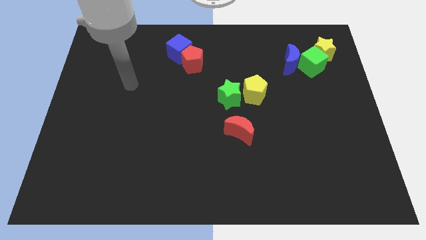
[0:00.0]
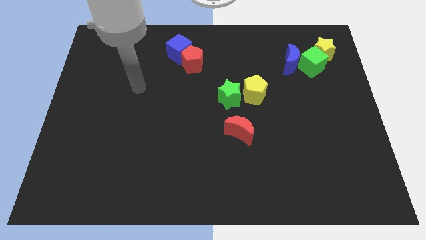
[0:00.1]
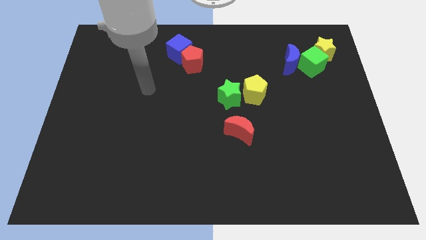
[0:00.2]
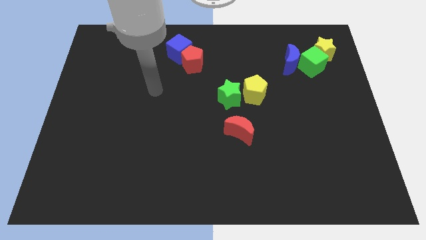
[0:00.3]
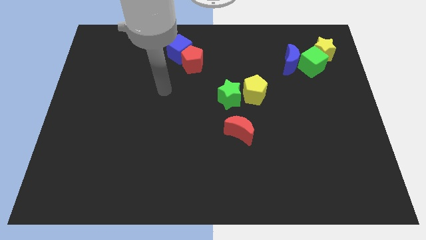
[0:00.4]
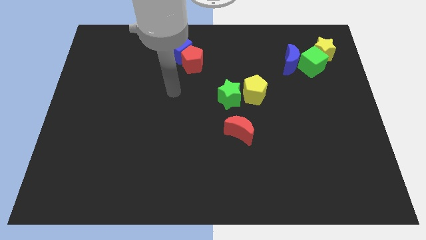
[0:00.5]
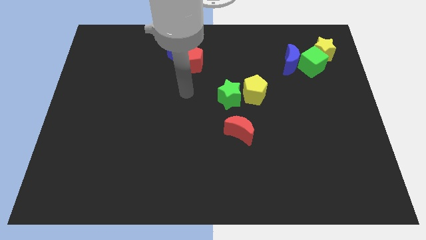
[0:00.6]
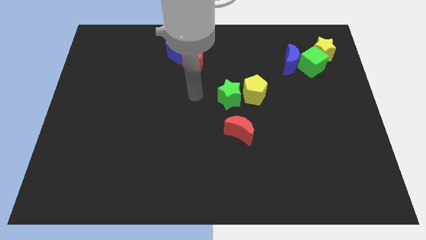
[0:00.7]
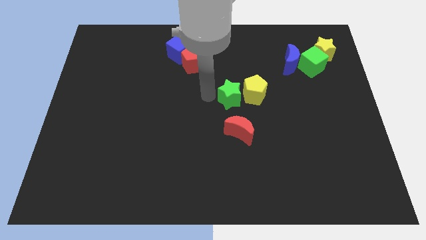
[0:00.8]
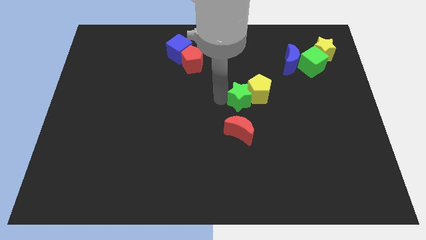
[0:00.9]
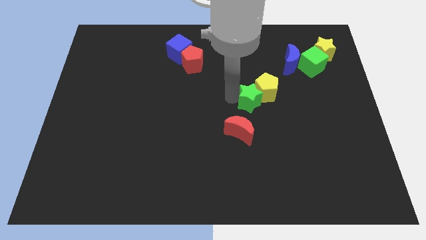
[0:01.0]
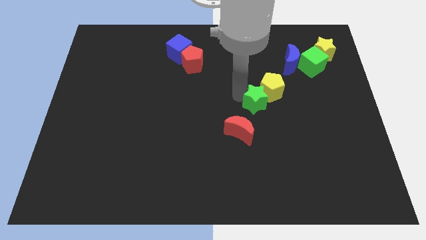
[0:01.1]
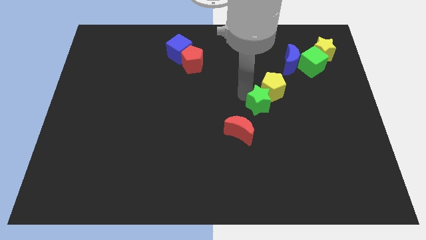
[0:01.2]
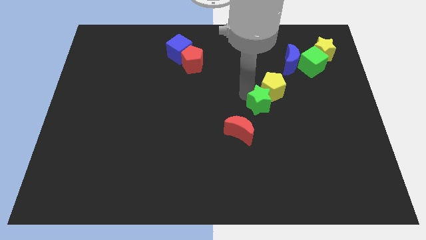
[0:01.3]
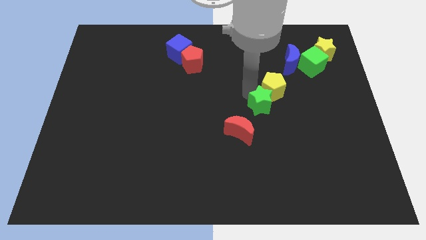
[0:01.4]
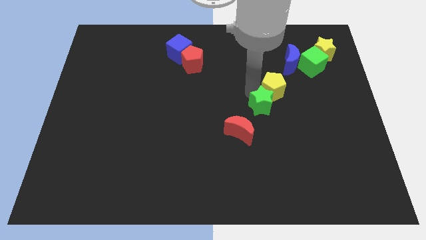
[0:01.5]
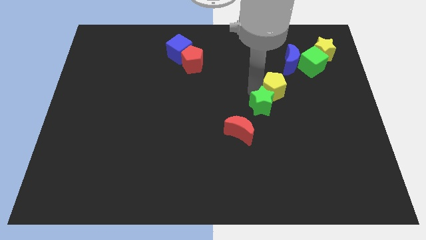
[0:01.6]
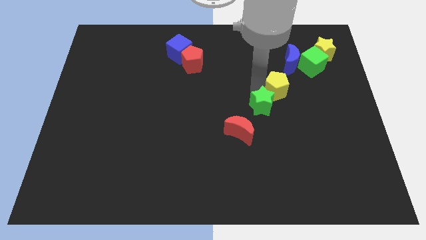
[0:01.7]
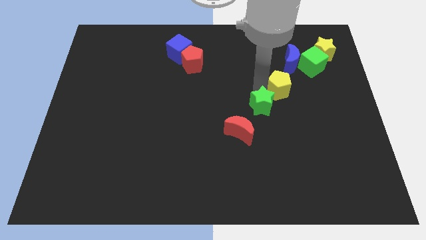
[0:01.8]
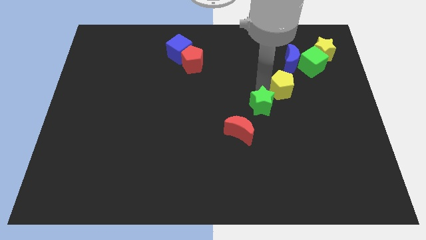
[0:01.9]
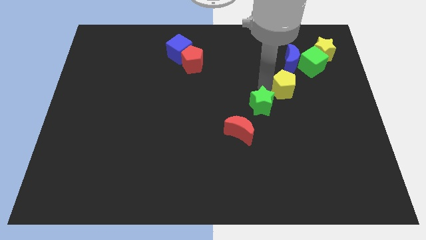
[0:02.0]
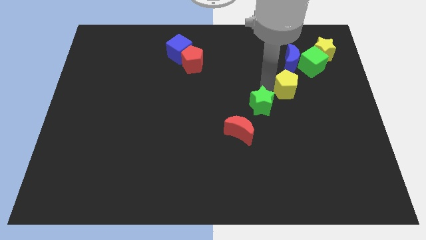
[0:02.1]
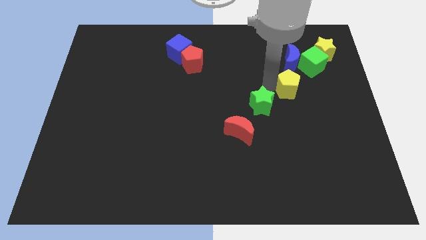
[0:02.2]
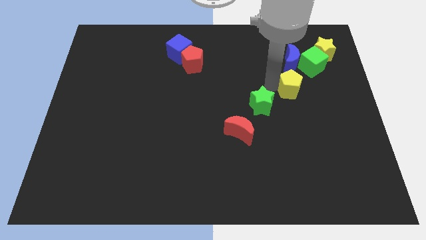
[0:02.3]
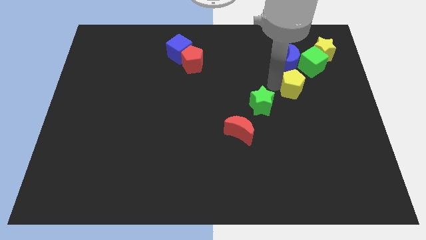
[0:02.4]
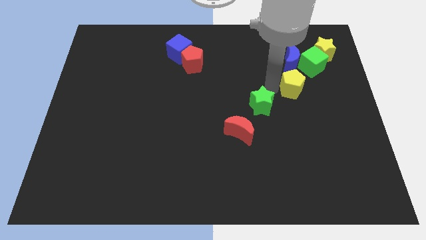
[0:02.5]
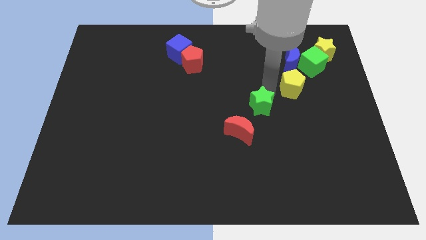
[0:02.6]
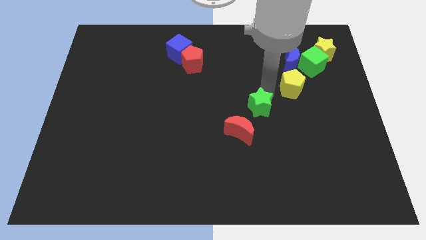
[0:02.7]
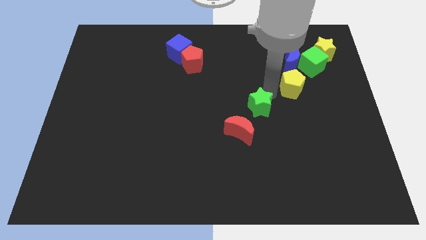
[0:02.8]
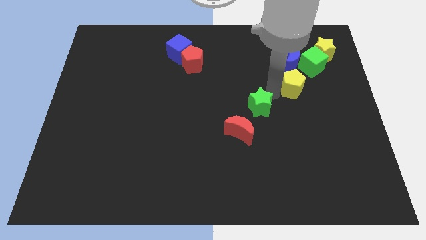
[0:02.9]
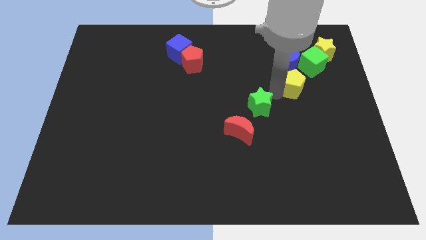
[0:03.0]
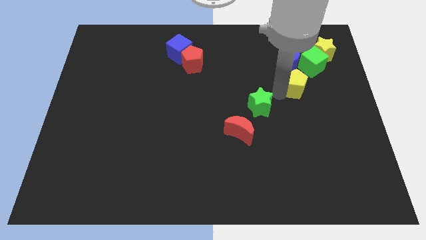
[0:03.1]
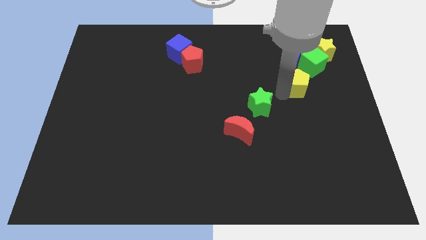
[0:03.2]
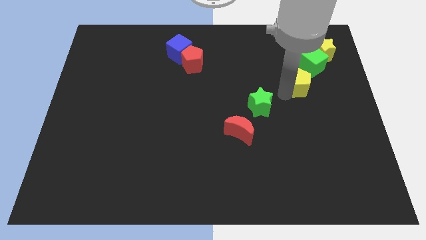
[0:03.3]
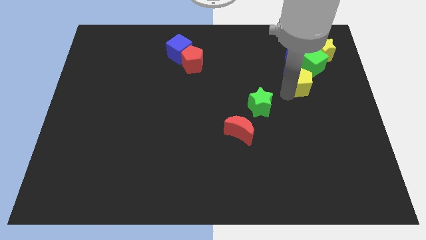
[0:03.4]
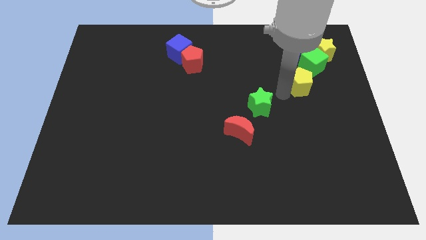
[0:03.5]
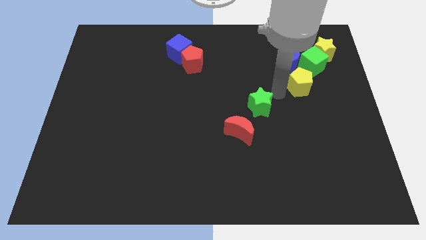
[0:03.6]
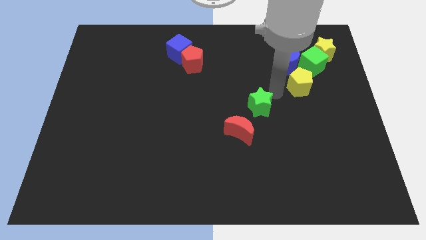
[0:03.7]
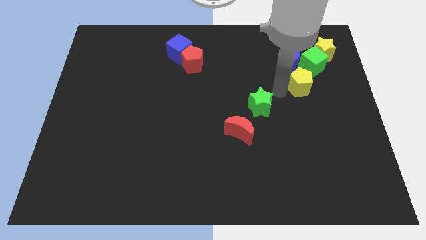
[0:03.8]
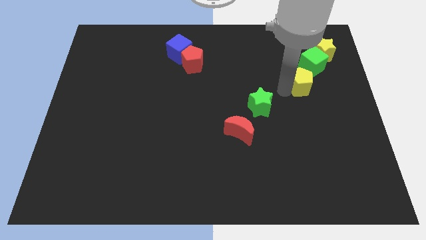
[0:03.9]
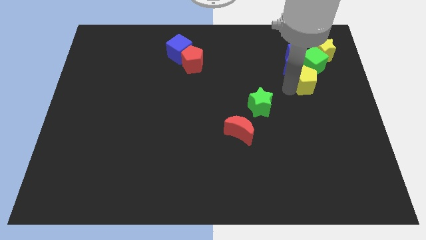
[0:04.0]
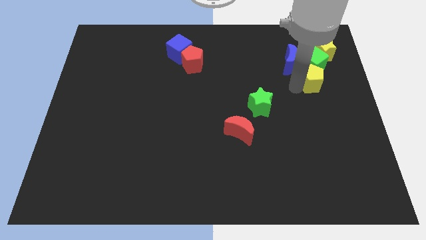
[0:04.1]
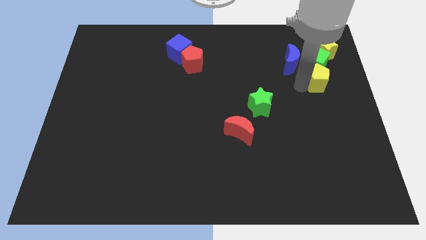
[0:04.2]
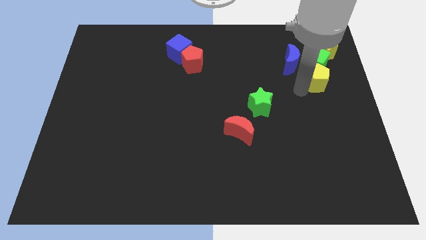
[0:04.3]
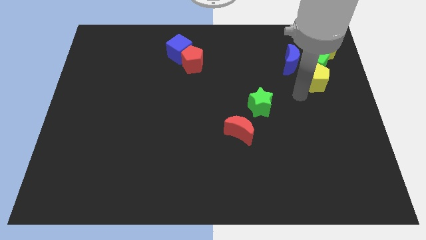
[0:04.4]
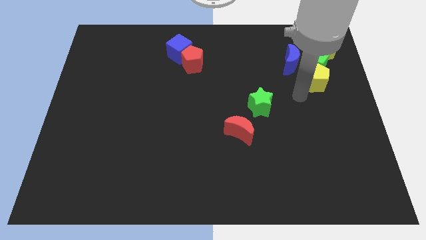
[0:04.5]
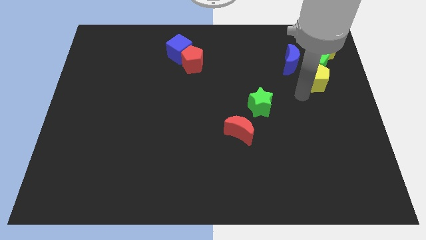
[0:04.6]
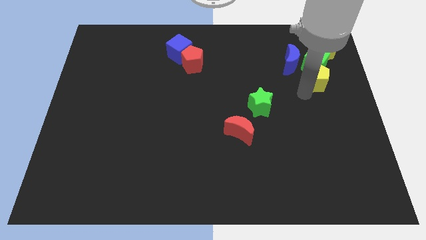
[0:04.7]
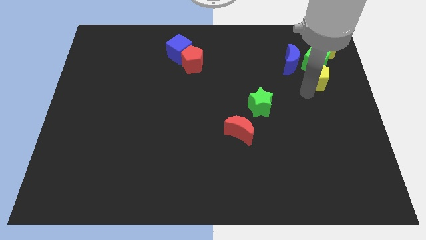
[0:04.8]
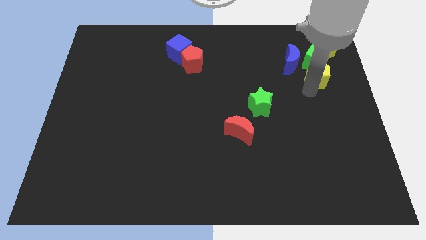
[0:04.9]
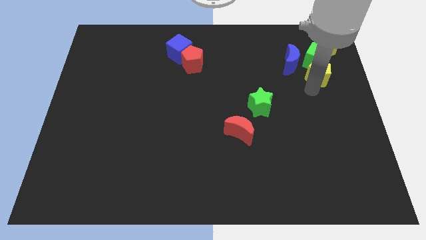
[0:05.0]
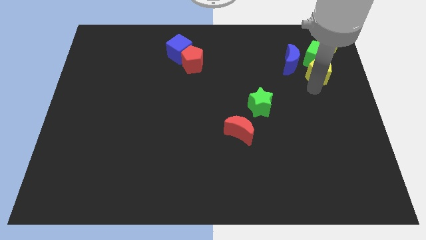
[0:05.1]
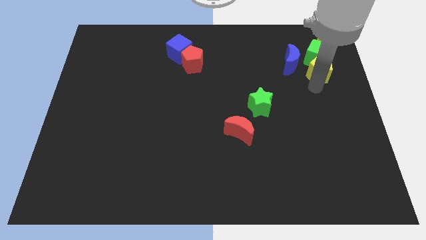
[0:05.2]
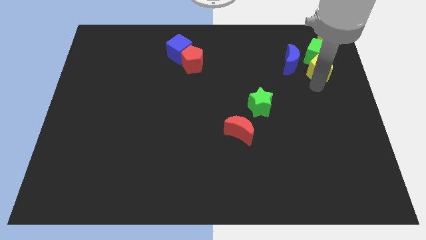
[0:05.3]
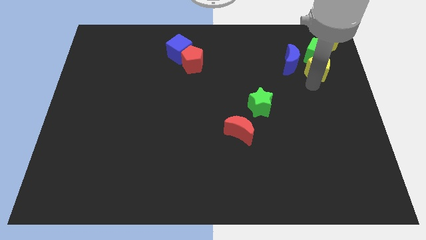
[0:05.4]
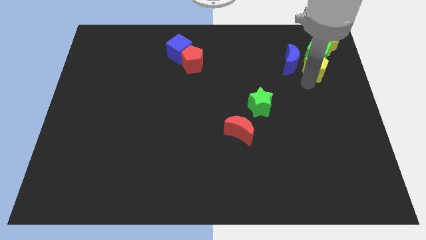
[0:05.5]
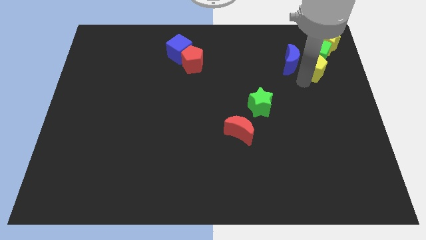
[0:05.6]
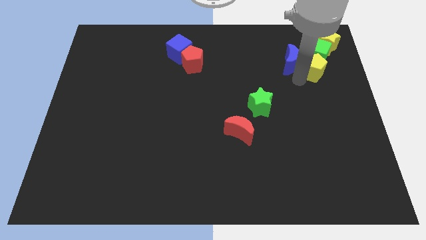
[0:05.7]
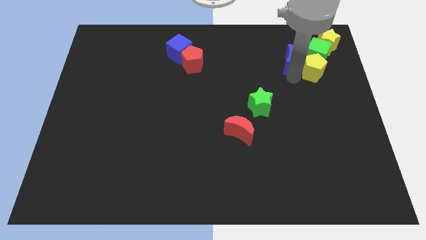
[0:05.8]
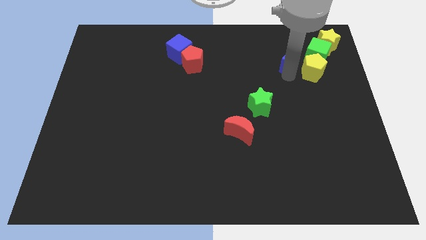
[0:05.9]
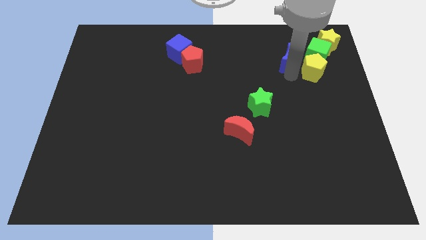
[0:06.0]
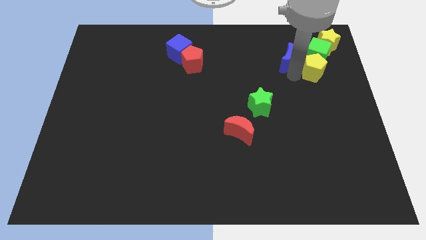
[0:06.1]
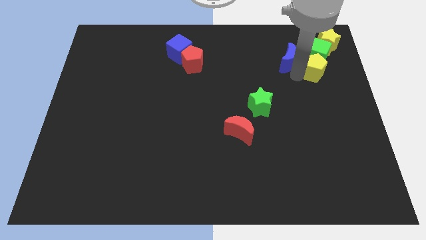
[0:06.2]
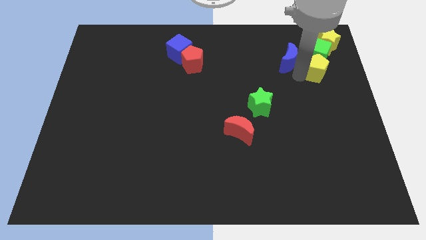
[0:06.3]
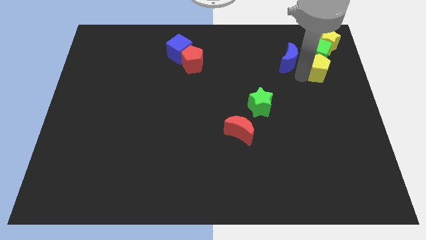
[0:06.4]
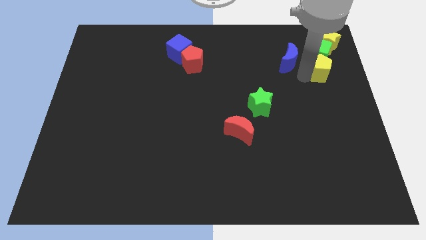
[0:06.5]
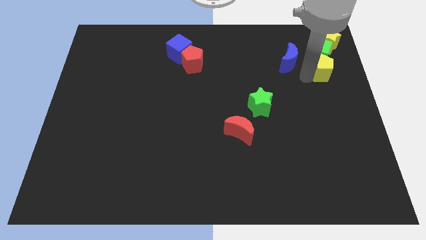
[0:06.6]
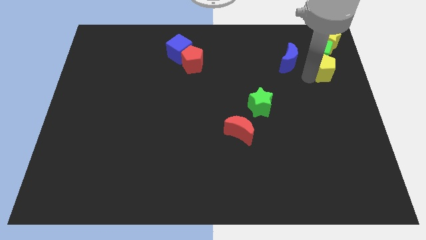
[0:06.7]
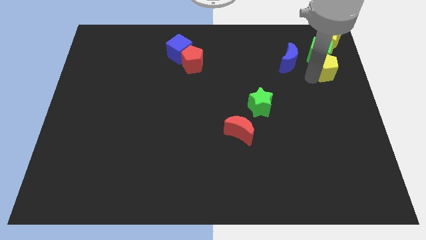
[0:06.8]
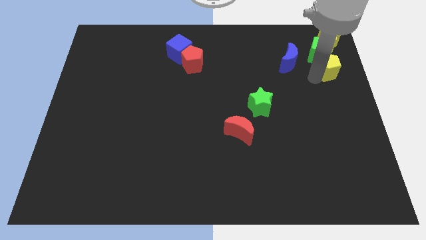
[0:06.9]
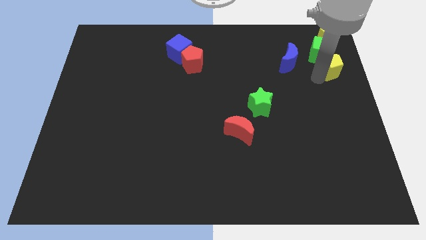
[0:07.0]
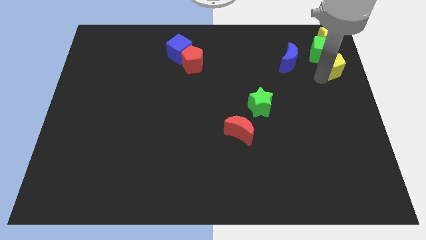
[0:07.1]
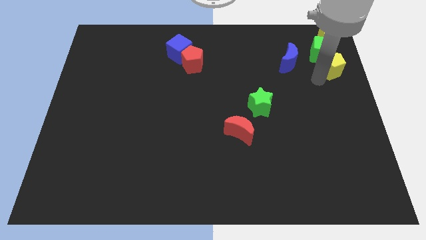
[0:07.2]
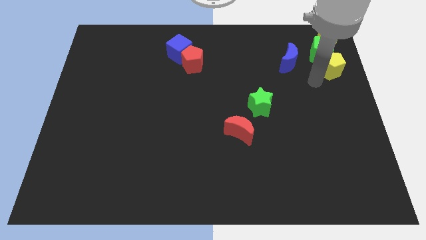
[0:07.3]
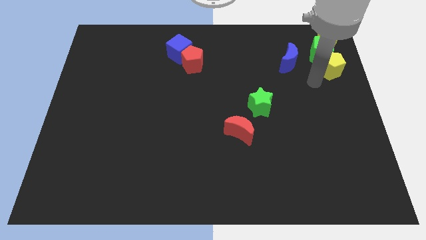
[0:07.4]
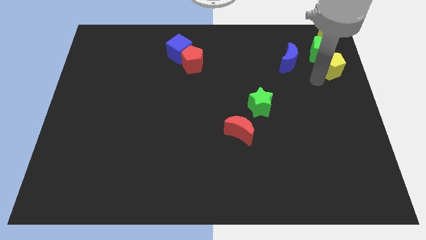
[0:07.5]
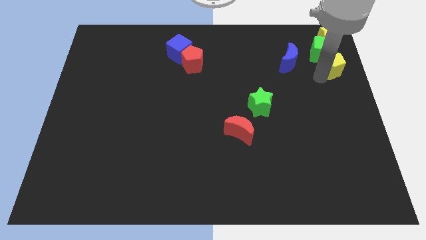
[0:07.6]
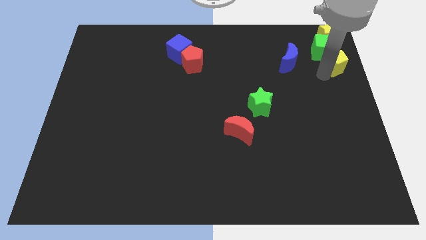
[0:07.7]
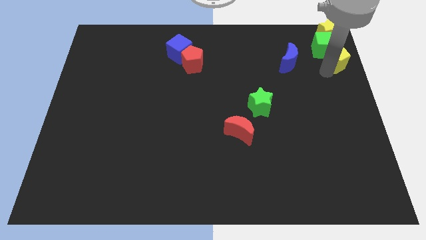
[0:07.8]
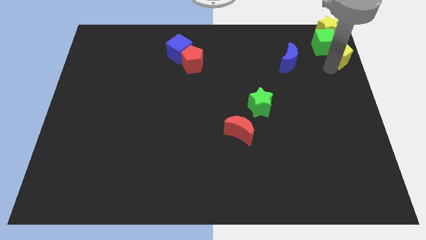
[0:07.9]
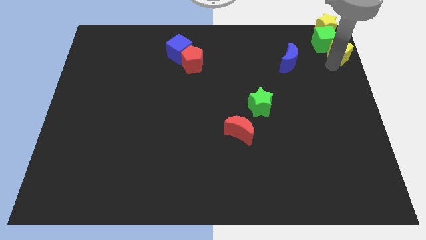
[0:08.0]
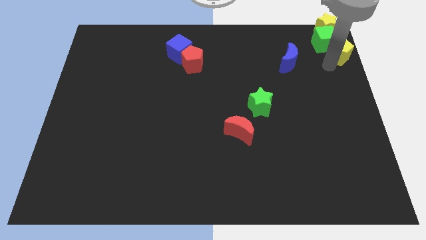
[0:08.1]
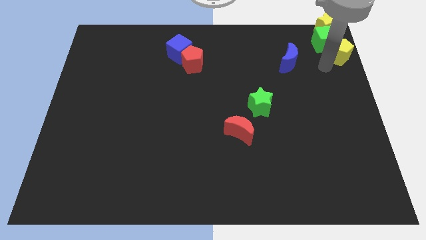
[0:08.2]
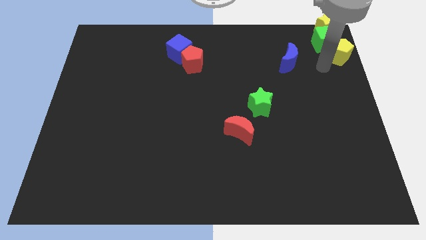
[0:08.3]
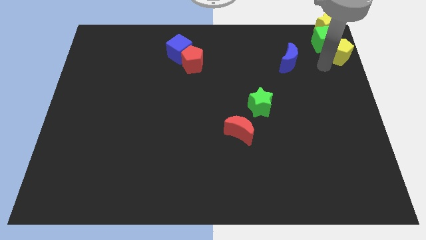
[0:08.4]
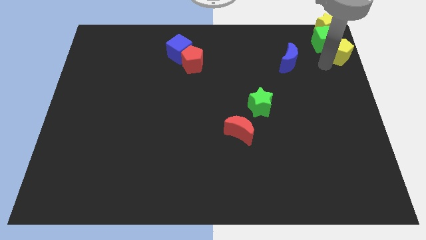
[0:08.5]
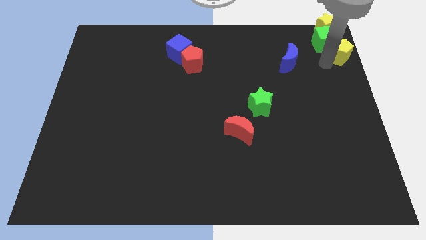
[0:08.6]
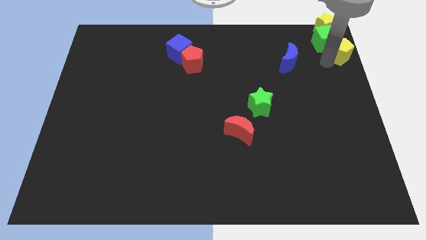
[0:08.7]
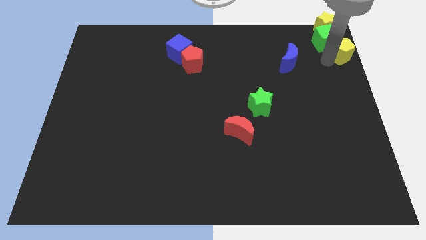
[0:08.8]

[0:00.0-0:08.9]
move the yellow pentagon to the top right
